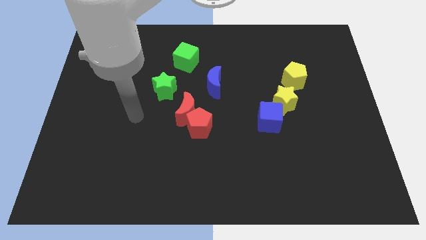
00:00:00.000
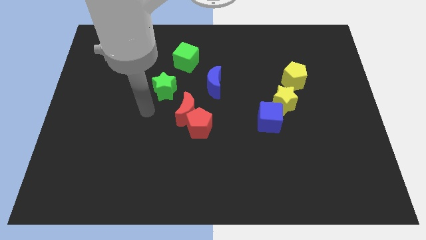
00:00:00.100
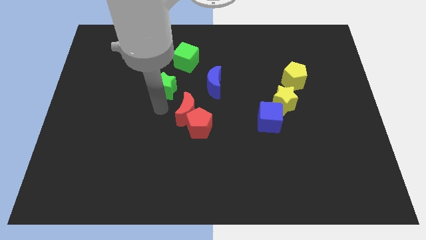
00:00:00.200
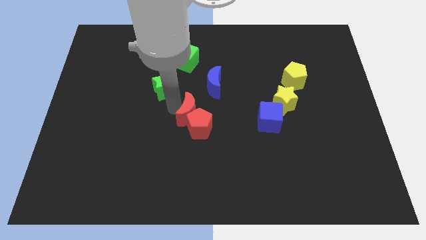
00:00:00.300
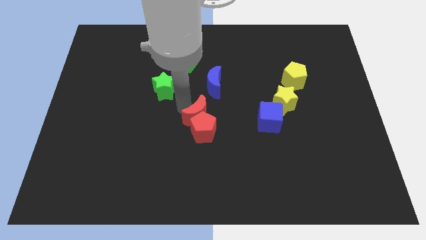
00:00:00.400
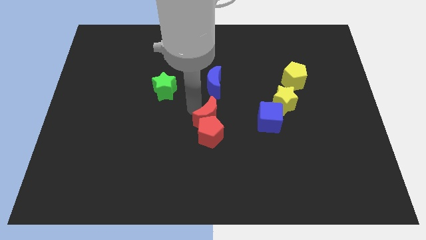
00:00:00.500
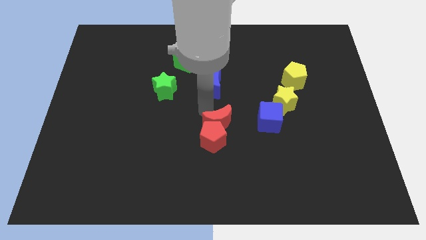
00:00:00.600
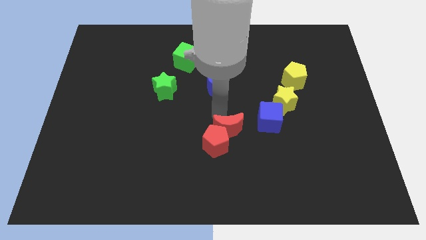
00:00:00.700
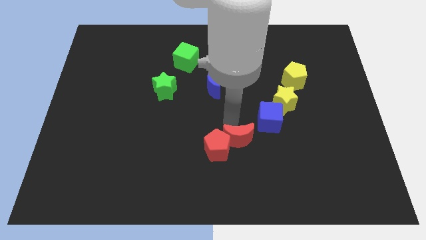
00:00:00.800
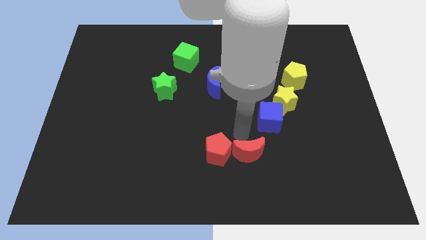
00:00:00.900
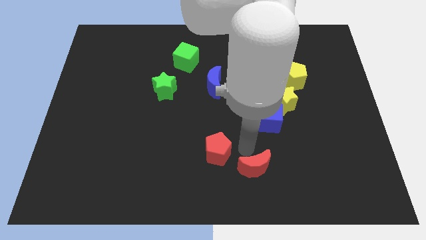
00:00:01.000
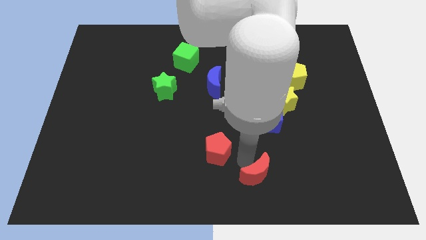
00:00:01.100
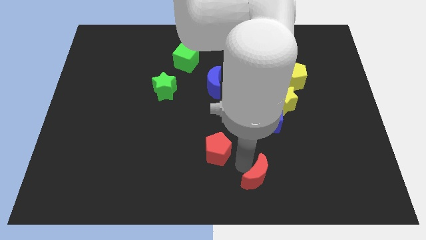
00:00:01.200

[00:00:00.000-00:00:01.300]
pull the red pentagon apart from the red moon

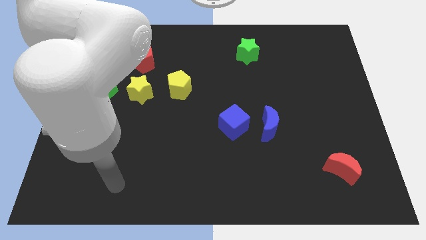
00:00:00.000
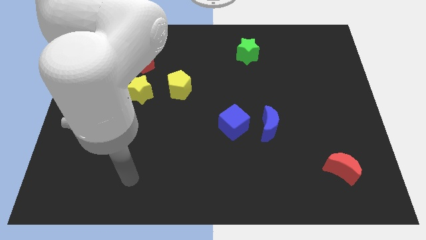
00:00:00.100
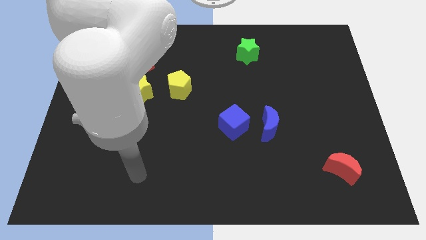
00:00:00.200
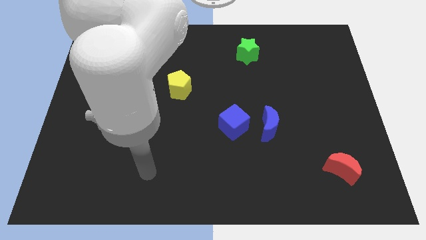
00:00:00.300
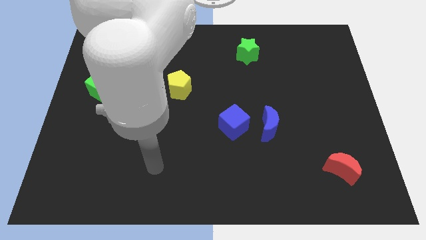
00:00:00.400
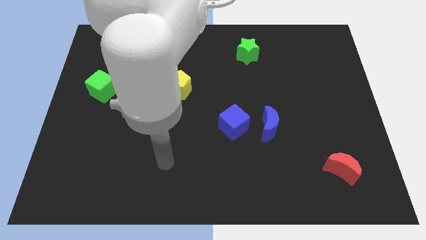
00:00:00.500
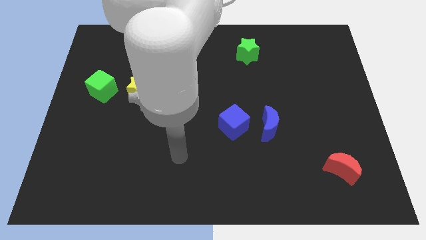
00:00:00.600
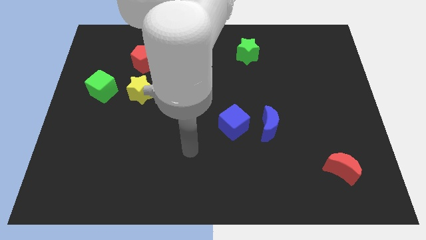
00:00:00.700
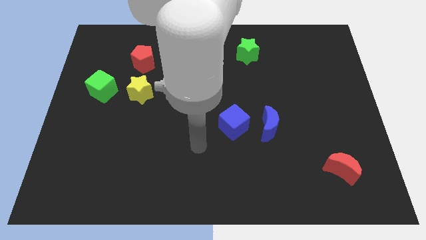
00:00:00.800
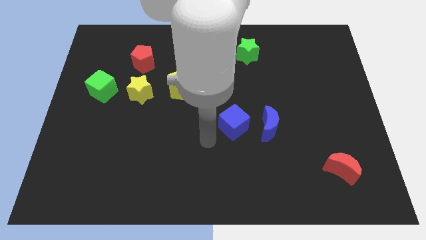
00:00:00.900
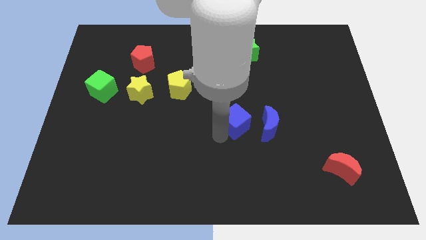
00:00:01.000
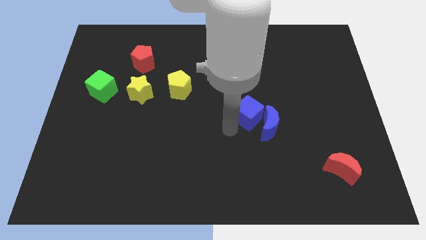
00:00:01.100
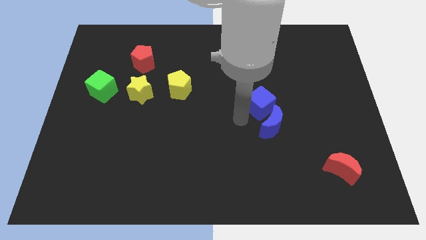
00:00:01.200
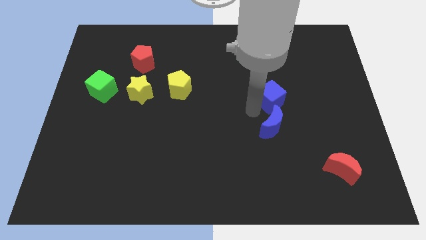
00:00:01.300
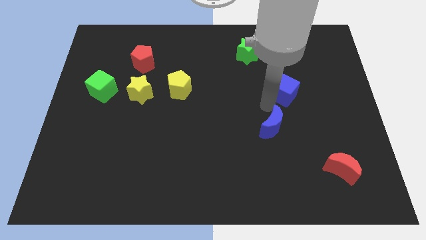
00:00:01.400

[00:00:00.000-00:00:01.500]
pull the blue moon apart from the blue cube

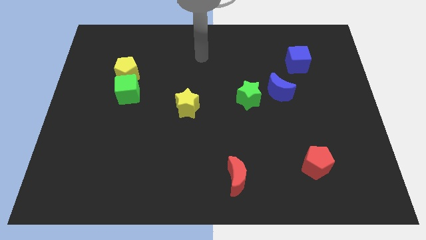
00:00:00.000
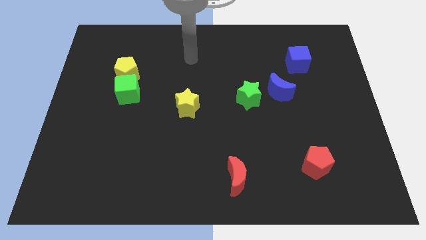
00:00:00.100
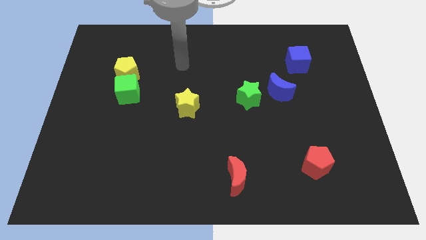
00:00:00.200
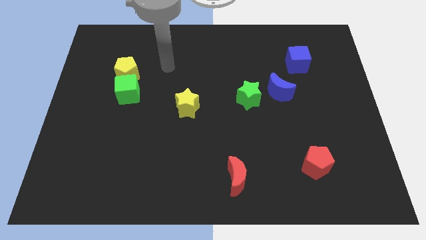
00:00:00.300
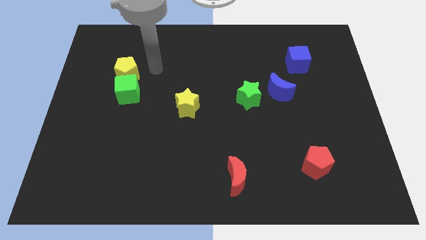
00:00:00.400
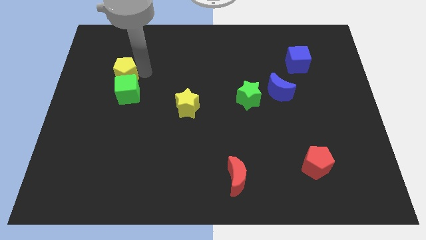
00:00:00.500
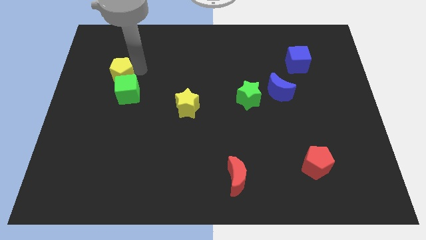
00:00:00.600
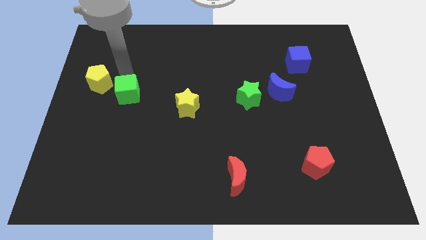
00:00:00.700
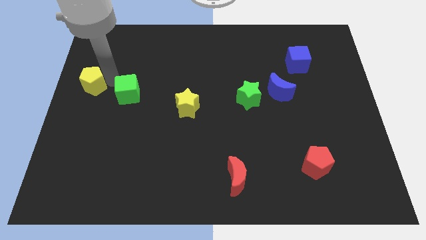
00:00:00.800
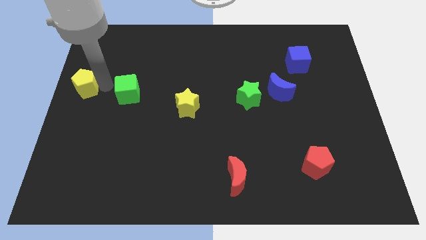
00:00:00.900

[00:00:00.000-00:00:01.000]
move the green cube away from the yellow pentagon

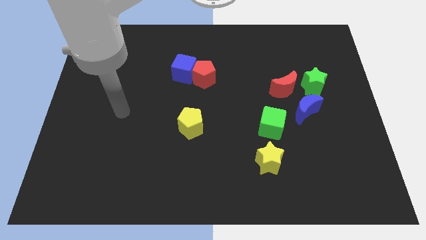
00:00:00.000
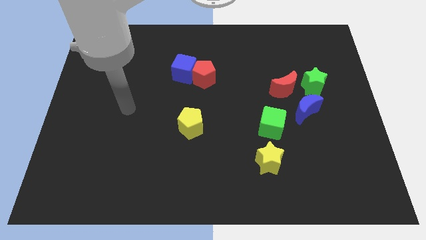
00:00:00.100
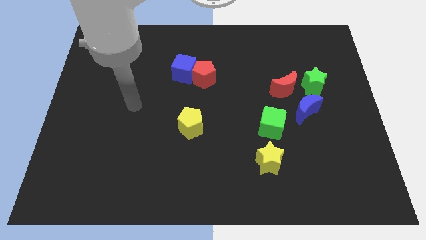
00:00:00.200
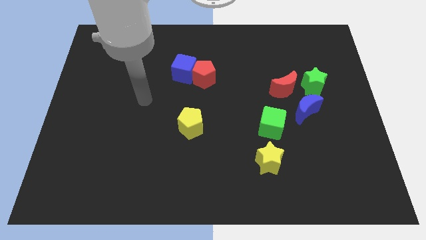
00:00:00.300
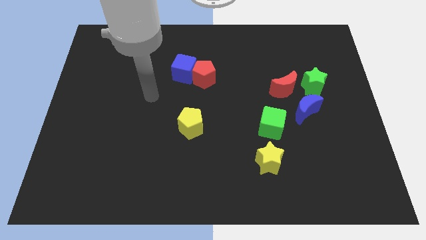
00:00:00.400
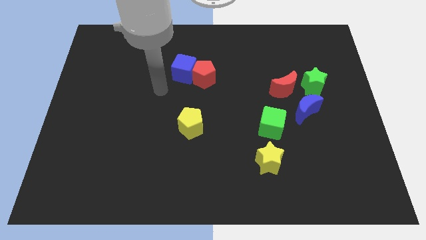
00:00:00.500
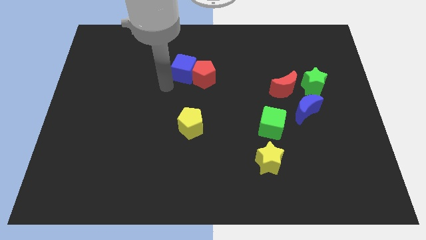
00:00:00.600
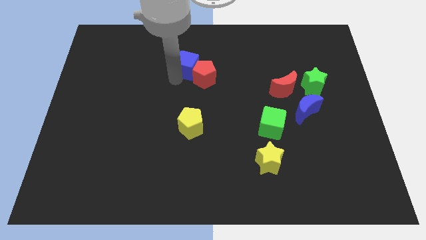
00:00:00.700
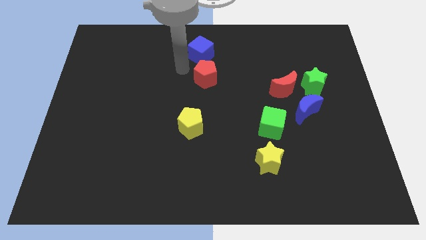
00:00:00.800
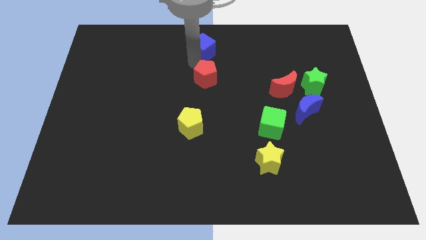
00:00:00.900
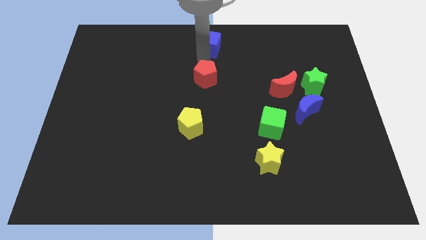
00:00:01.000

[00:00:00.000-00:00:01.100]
pull the red pentagon apart from the blue cube

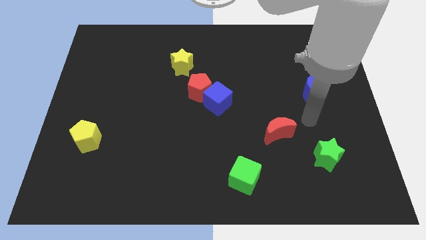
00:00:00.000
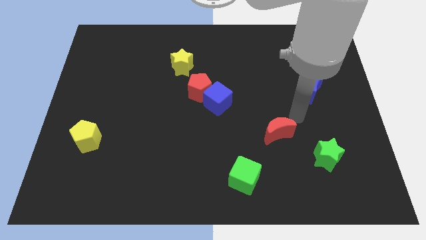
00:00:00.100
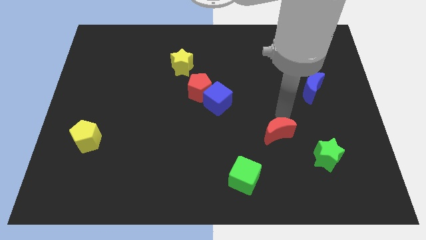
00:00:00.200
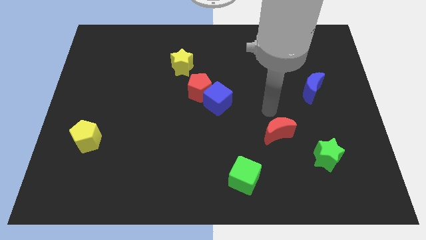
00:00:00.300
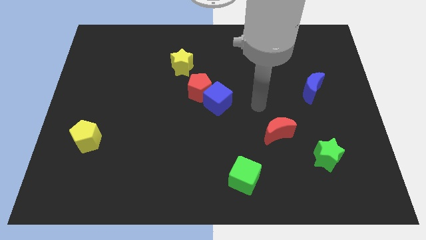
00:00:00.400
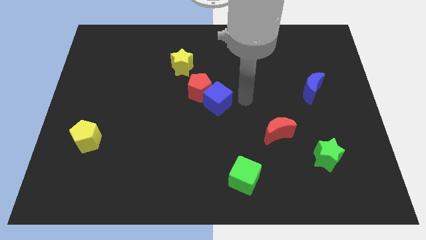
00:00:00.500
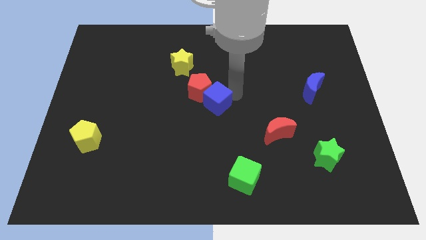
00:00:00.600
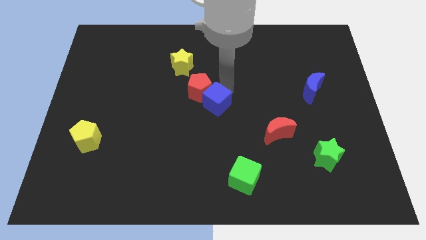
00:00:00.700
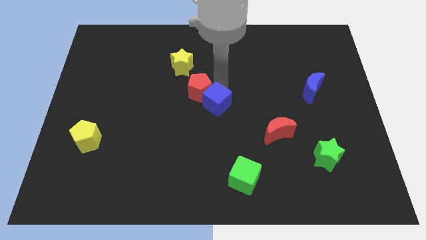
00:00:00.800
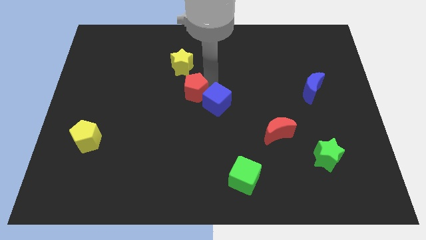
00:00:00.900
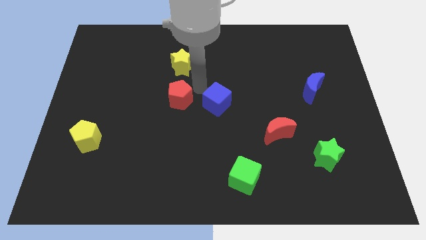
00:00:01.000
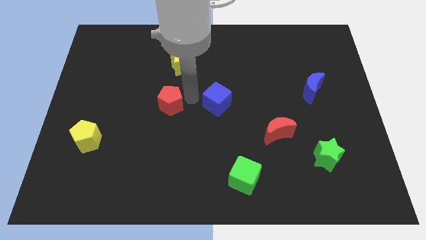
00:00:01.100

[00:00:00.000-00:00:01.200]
separate the blue cube from the red pentagon

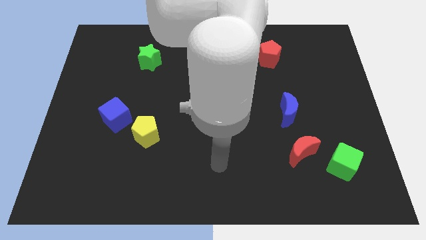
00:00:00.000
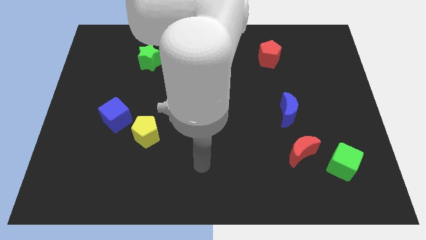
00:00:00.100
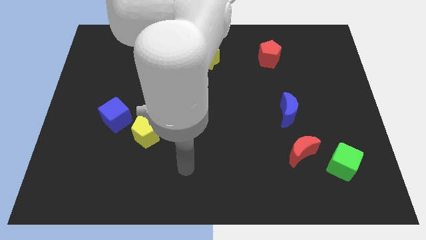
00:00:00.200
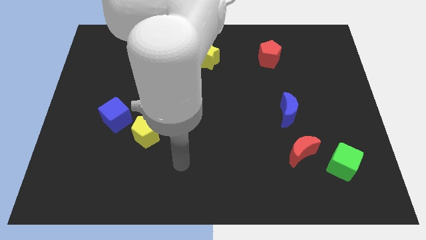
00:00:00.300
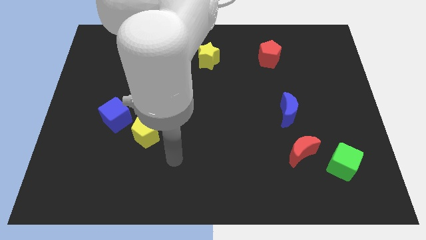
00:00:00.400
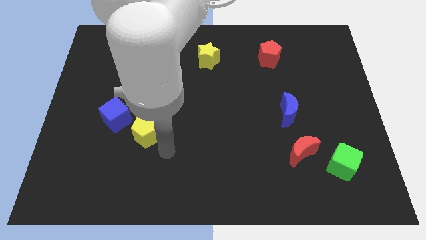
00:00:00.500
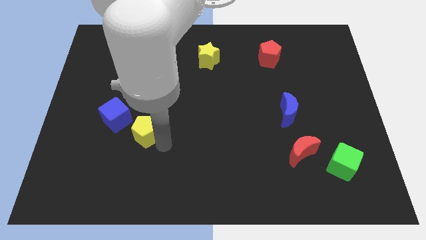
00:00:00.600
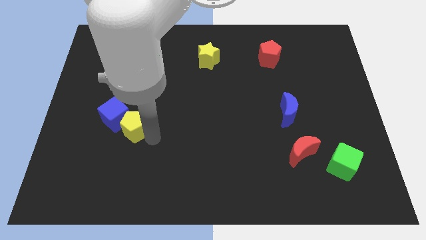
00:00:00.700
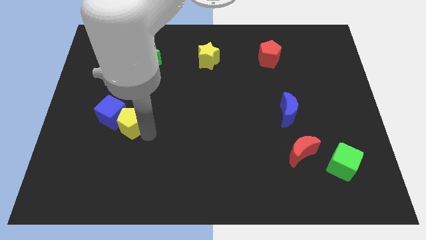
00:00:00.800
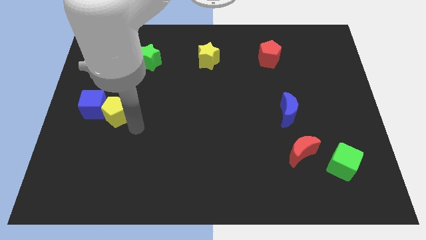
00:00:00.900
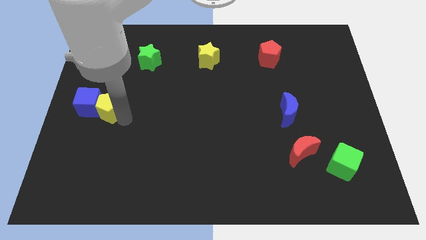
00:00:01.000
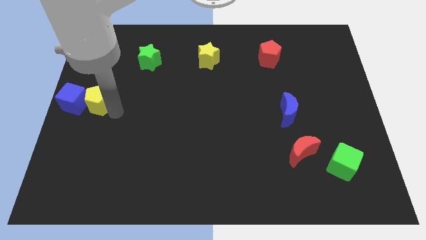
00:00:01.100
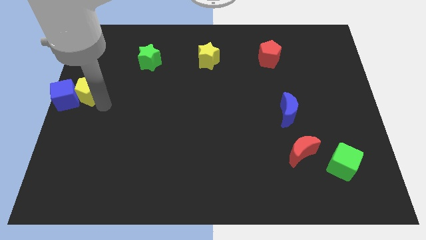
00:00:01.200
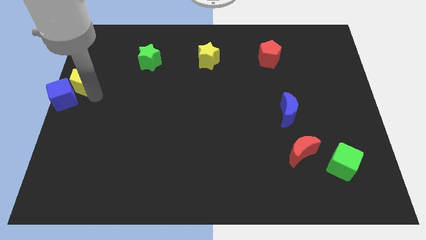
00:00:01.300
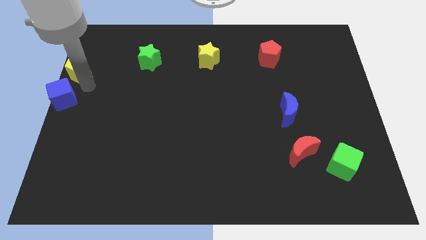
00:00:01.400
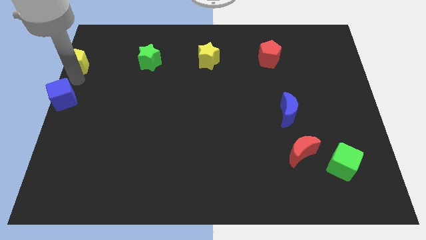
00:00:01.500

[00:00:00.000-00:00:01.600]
move the blue cube away from the yellow pentagon

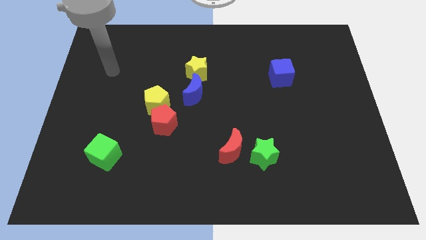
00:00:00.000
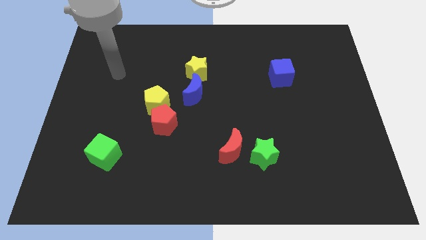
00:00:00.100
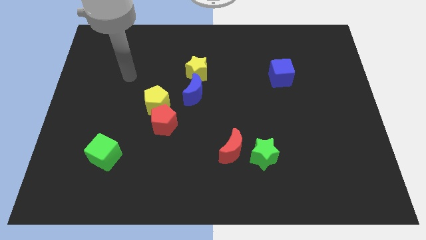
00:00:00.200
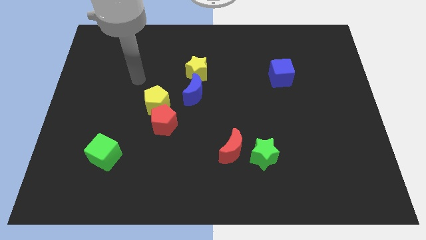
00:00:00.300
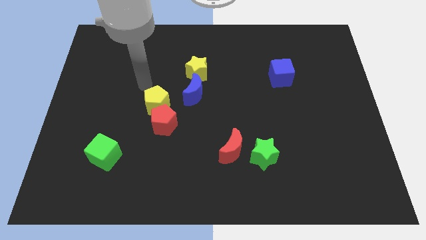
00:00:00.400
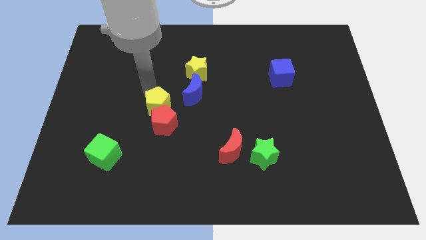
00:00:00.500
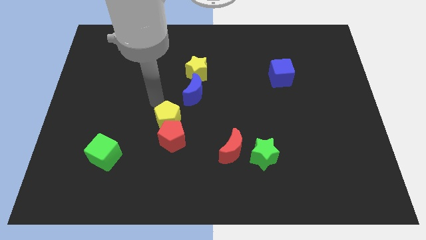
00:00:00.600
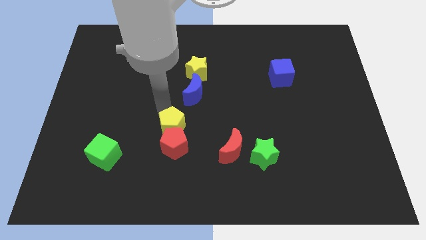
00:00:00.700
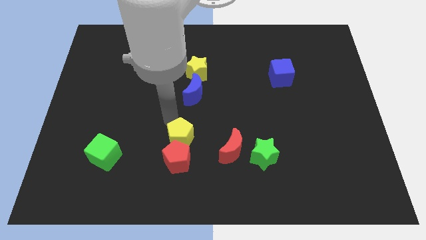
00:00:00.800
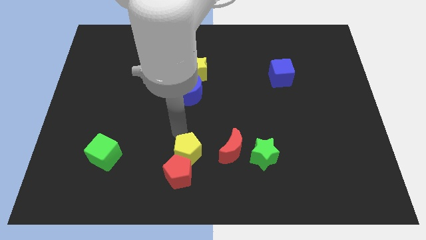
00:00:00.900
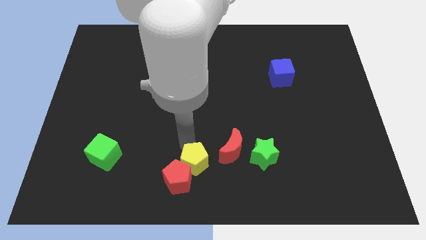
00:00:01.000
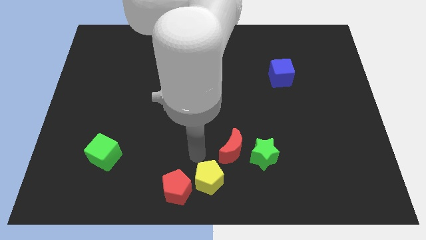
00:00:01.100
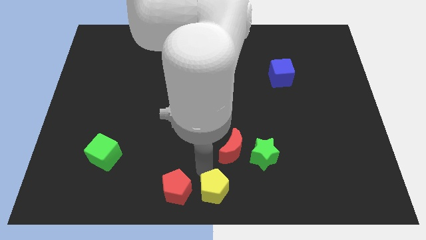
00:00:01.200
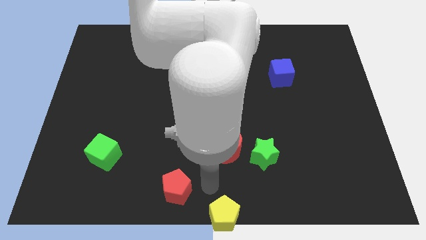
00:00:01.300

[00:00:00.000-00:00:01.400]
pull the red pentagon apart from the yellow pentagon

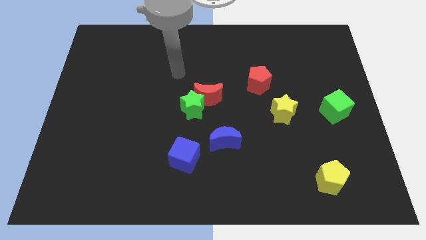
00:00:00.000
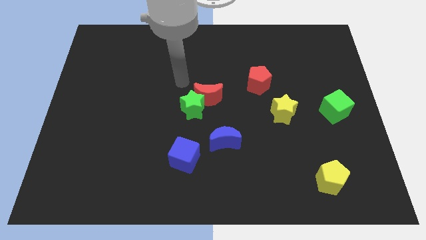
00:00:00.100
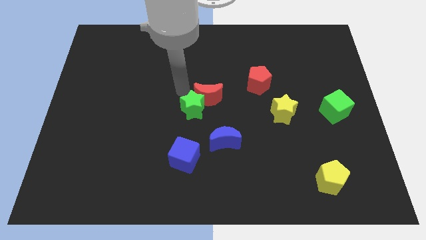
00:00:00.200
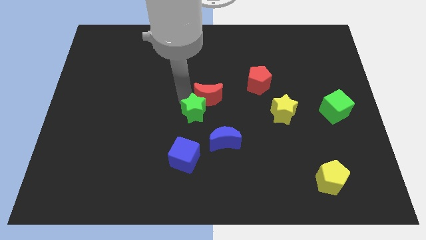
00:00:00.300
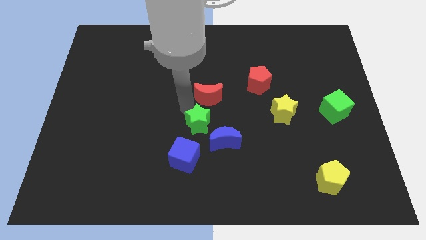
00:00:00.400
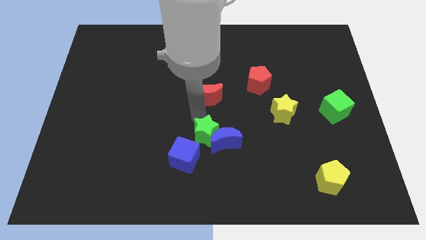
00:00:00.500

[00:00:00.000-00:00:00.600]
pull the red moon apart from the green star
